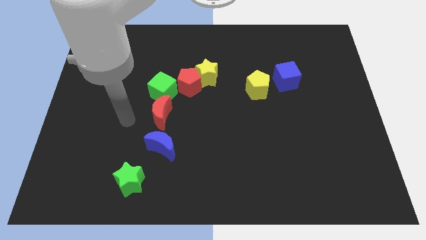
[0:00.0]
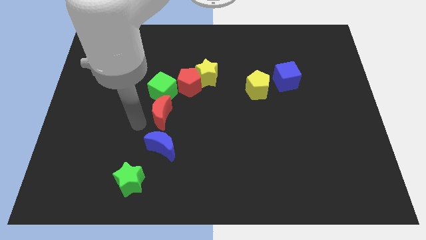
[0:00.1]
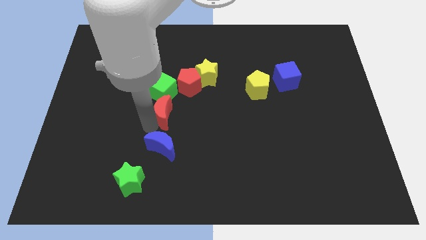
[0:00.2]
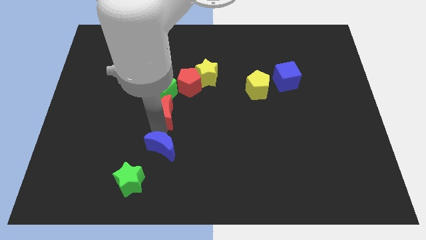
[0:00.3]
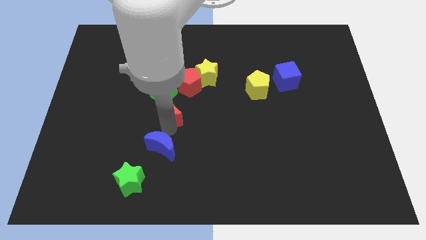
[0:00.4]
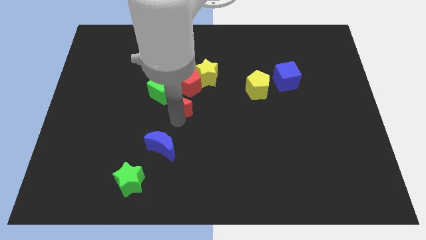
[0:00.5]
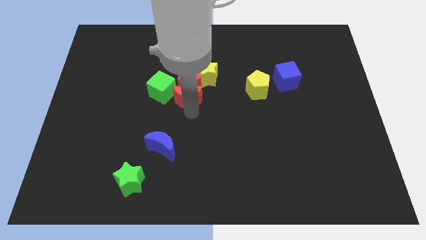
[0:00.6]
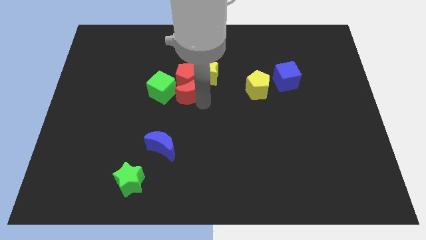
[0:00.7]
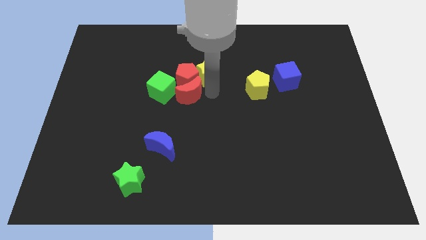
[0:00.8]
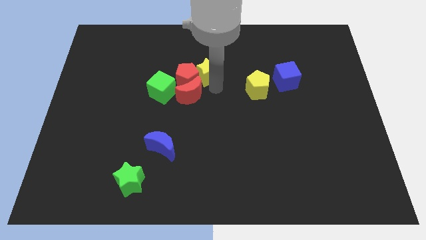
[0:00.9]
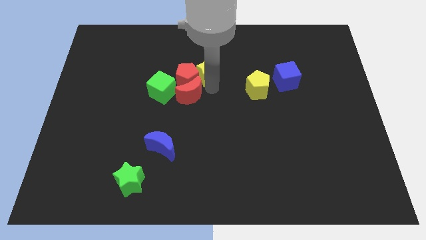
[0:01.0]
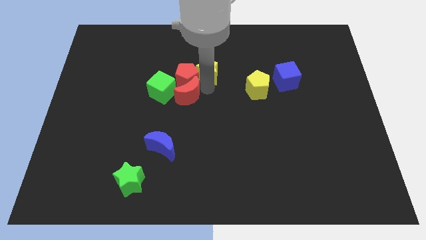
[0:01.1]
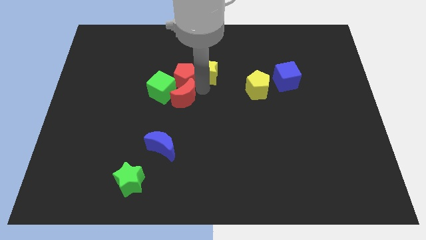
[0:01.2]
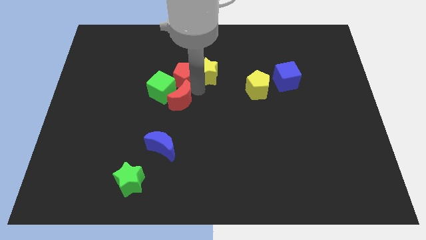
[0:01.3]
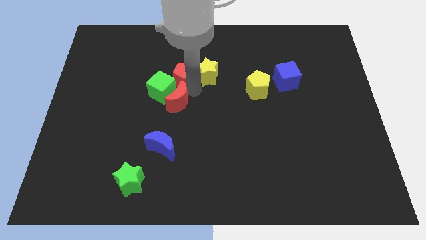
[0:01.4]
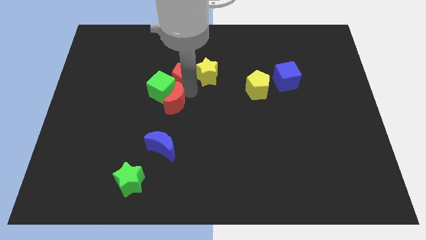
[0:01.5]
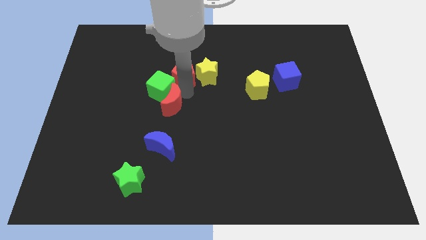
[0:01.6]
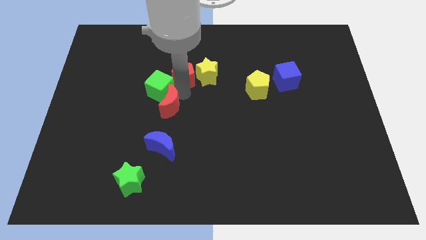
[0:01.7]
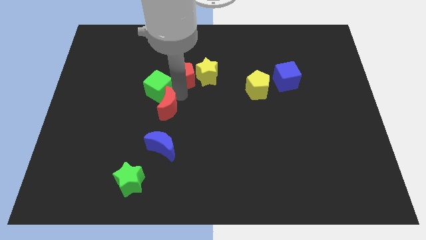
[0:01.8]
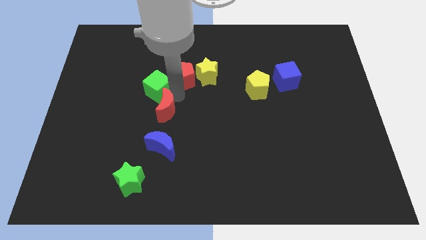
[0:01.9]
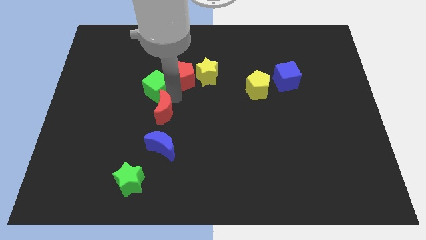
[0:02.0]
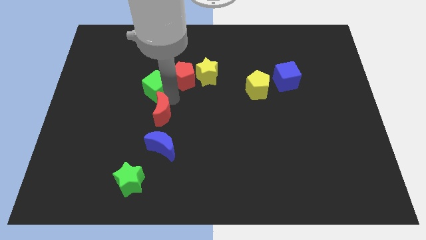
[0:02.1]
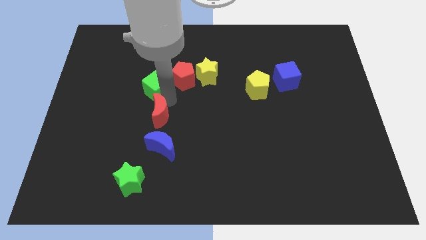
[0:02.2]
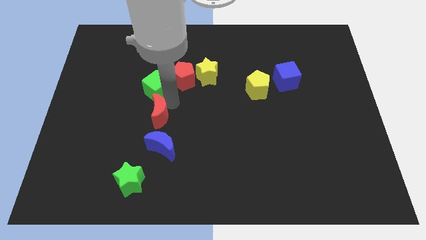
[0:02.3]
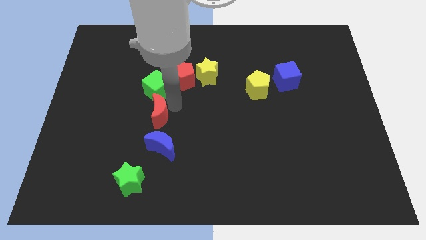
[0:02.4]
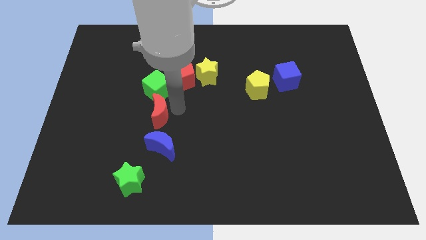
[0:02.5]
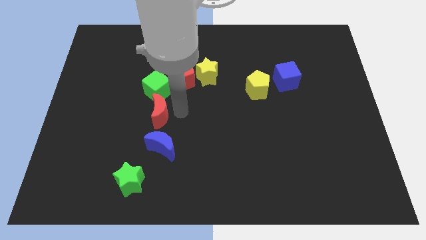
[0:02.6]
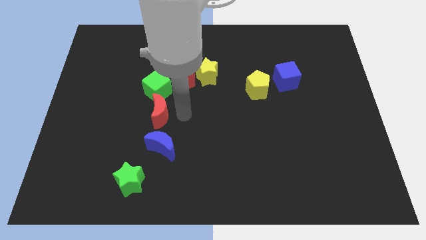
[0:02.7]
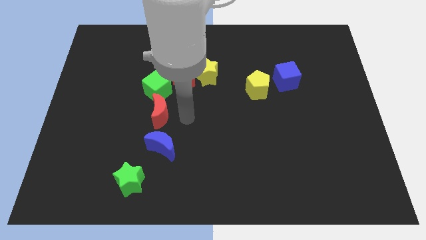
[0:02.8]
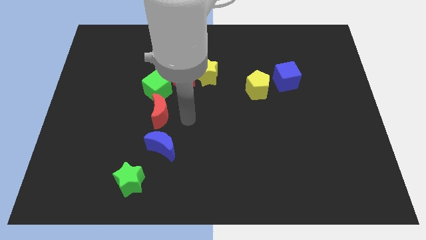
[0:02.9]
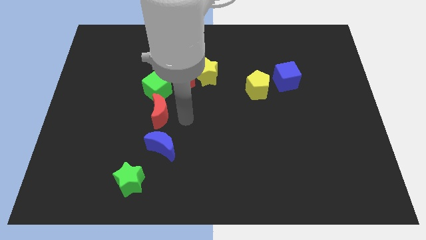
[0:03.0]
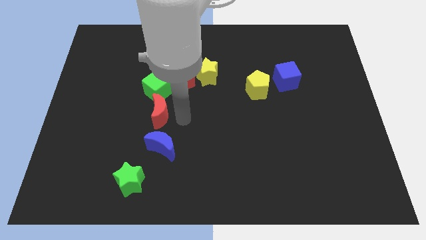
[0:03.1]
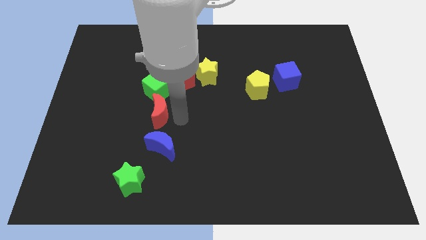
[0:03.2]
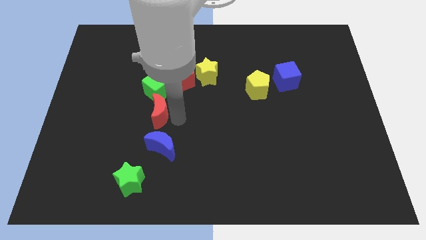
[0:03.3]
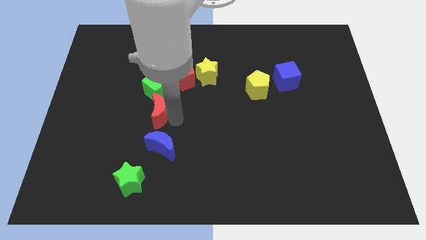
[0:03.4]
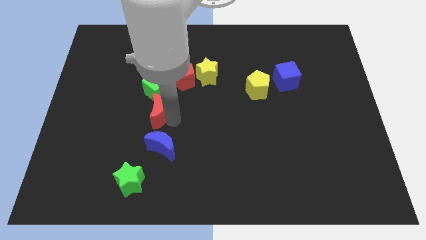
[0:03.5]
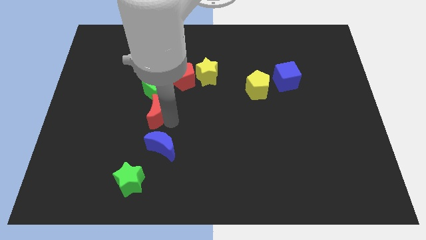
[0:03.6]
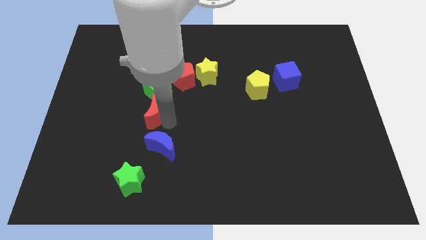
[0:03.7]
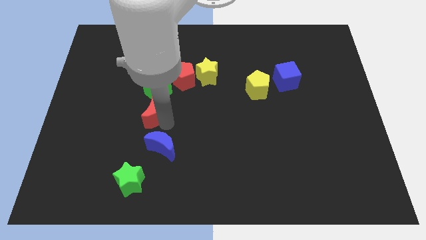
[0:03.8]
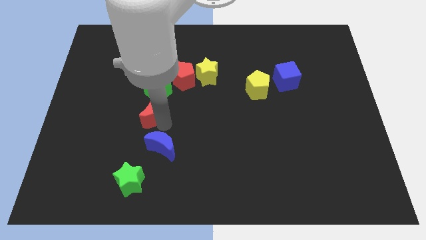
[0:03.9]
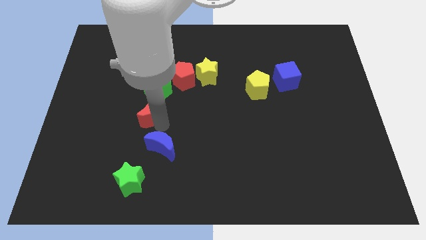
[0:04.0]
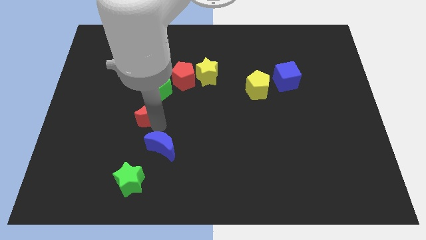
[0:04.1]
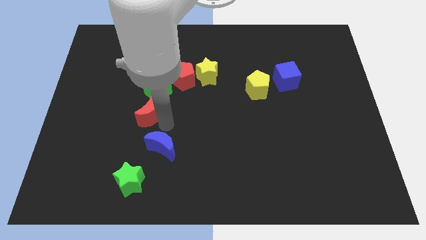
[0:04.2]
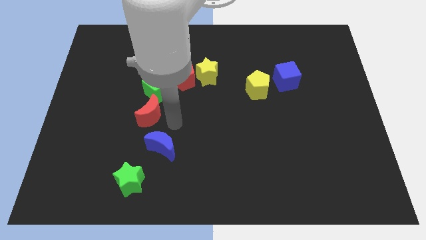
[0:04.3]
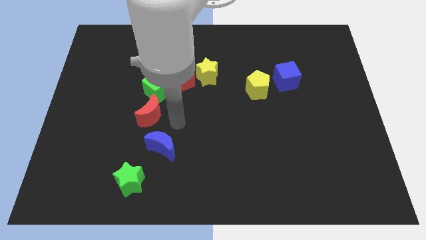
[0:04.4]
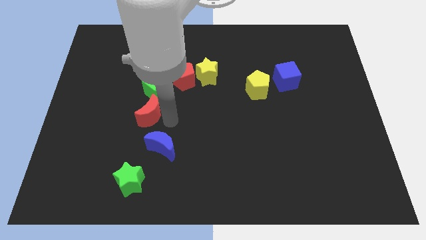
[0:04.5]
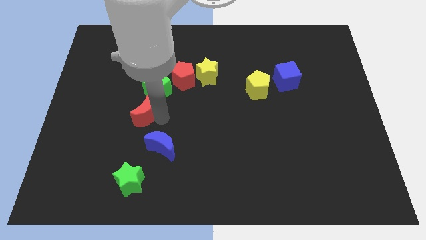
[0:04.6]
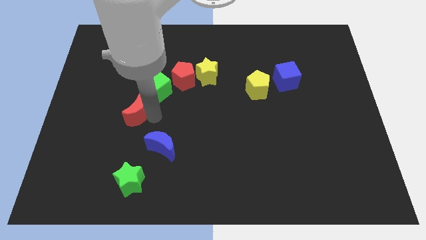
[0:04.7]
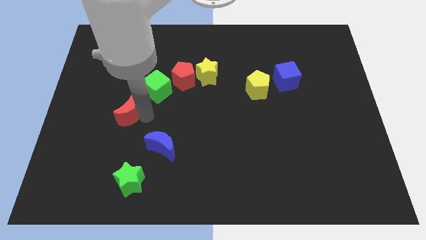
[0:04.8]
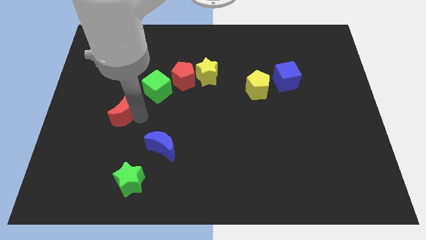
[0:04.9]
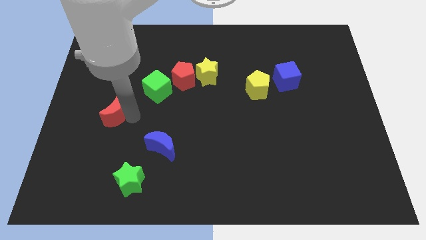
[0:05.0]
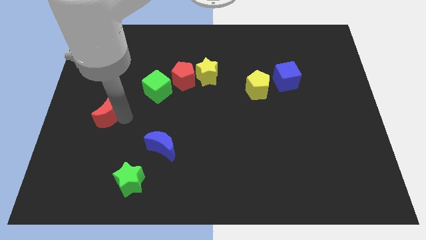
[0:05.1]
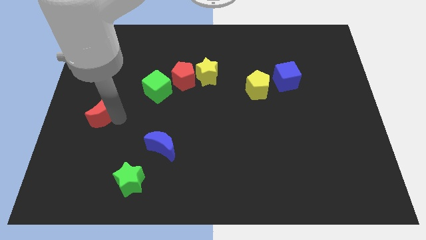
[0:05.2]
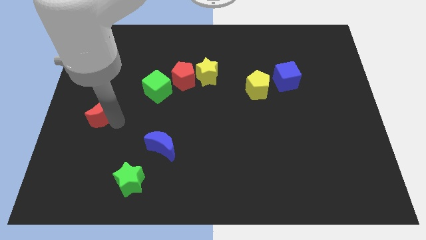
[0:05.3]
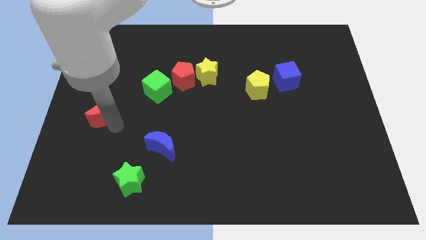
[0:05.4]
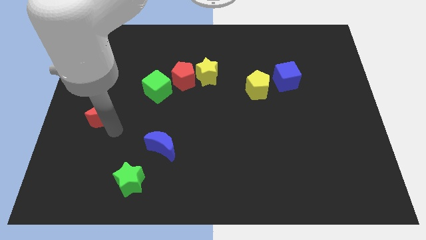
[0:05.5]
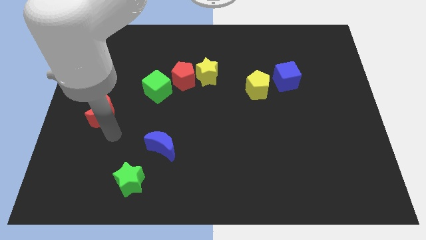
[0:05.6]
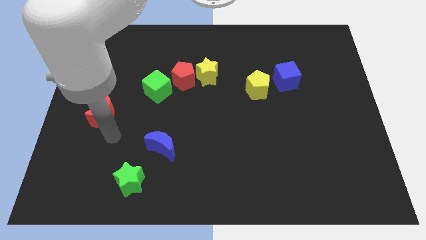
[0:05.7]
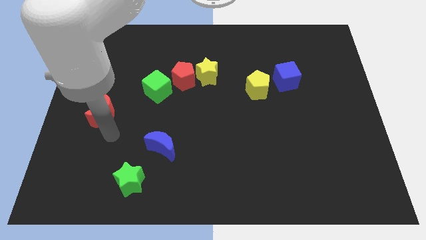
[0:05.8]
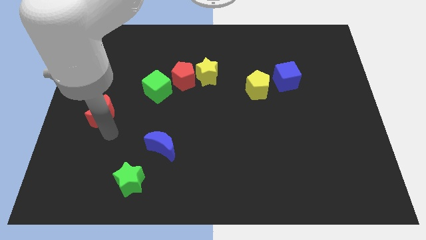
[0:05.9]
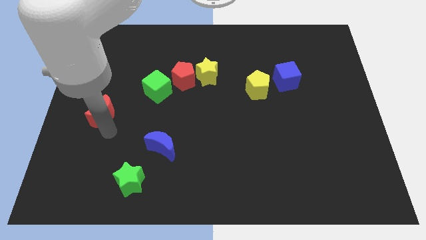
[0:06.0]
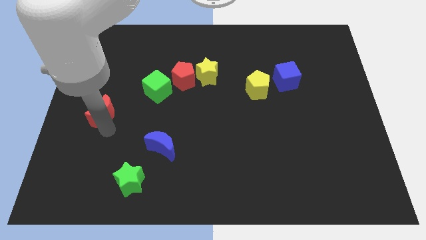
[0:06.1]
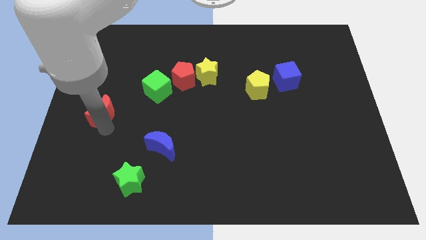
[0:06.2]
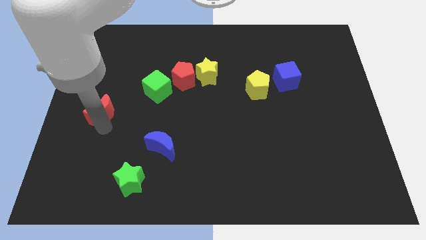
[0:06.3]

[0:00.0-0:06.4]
move the red moon to the left side
